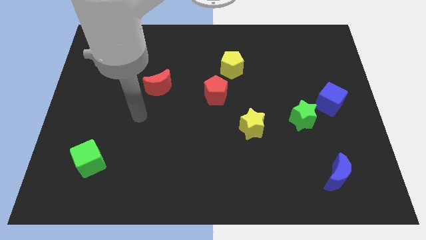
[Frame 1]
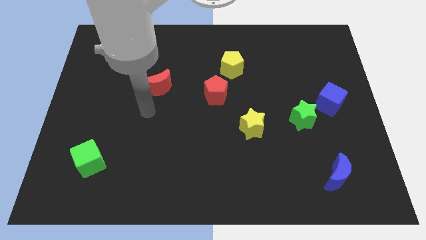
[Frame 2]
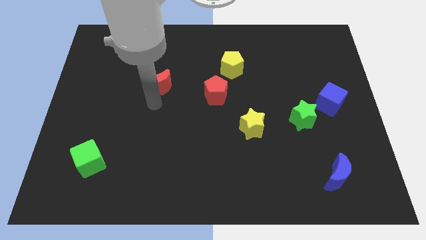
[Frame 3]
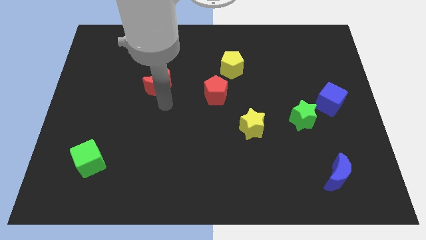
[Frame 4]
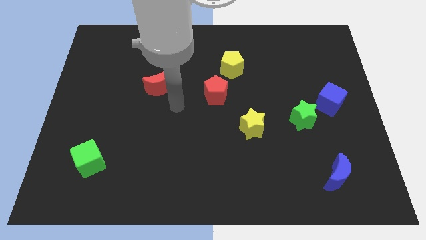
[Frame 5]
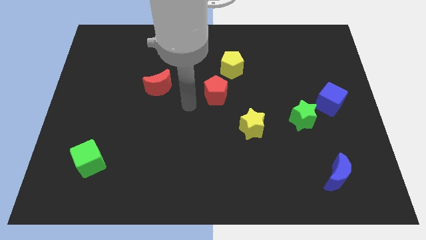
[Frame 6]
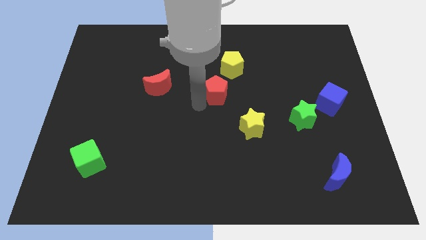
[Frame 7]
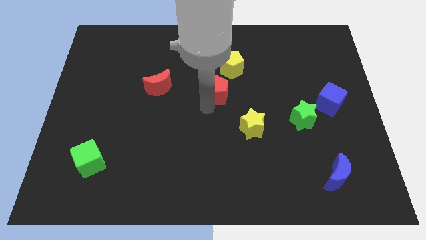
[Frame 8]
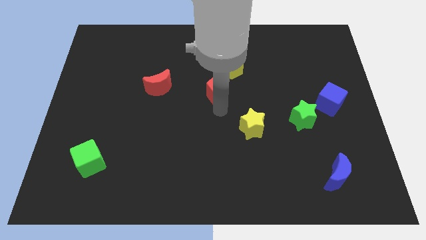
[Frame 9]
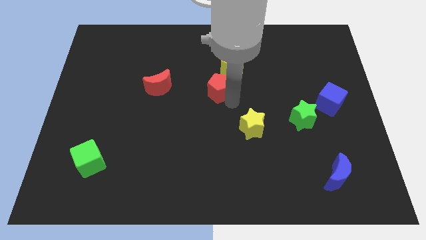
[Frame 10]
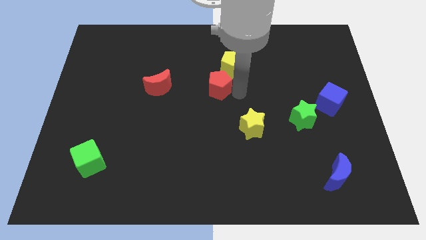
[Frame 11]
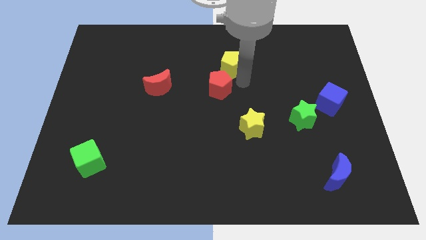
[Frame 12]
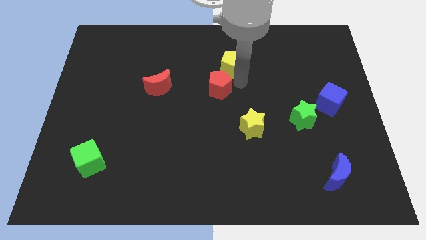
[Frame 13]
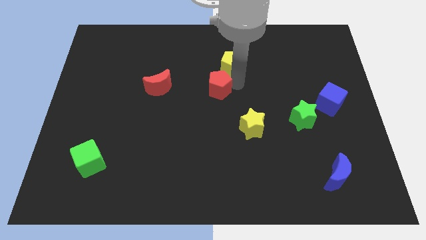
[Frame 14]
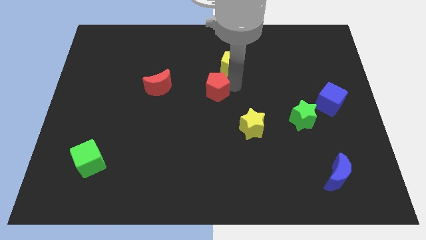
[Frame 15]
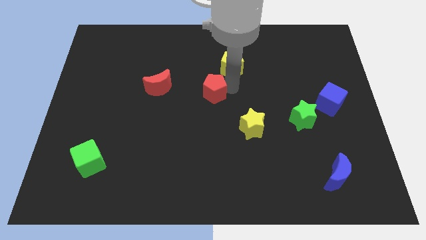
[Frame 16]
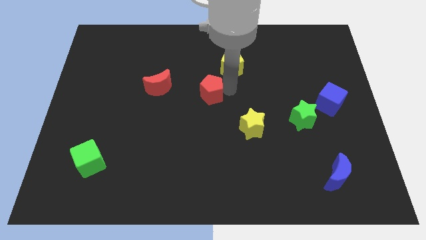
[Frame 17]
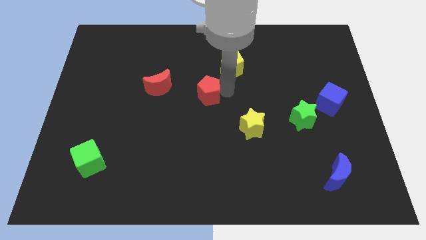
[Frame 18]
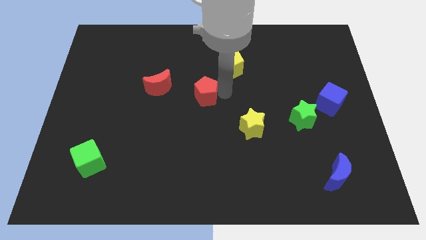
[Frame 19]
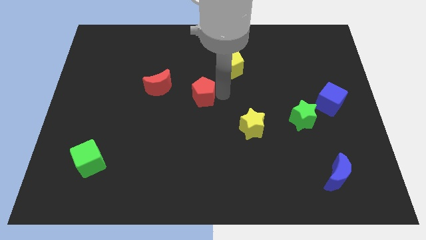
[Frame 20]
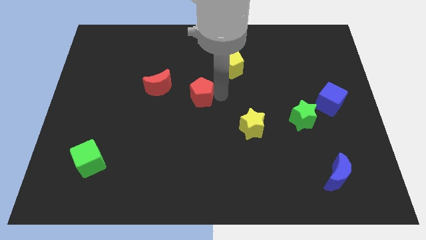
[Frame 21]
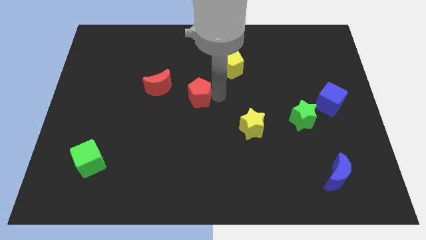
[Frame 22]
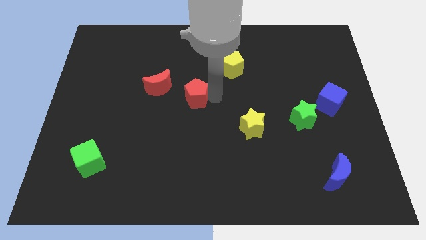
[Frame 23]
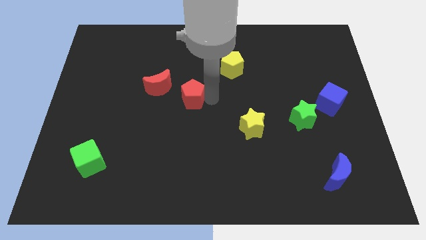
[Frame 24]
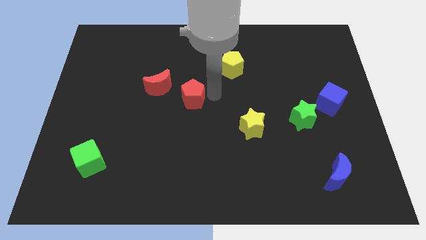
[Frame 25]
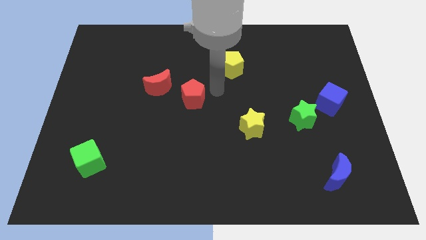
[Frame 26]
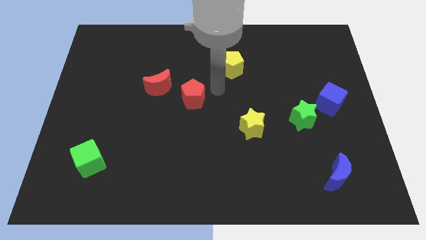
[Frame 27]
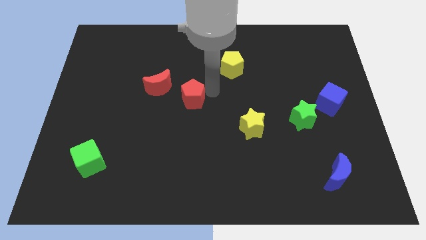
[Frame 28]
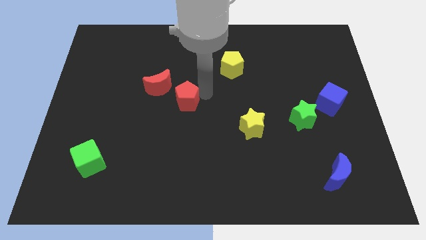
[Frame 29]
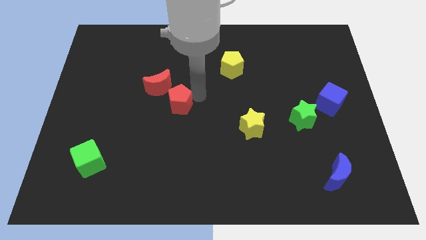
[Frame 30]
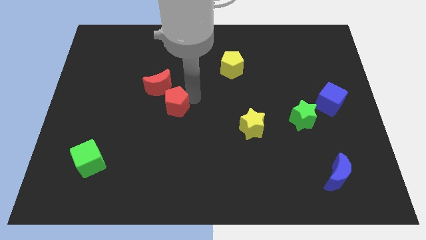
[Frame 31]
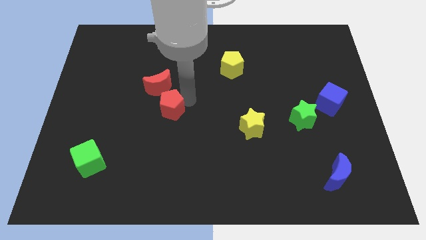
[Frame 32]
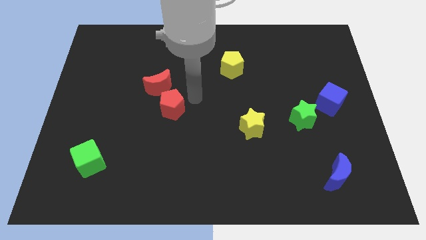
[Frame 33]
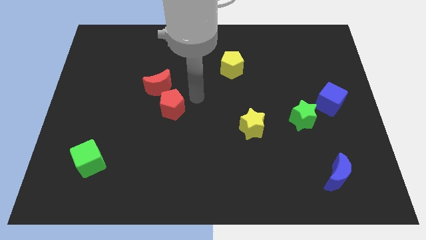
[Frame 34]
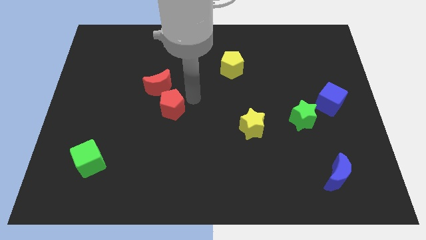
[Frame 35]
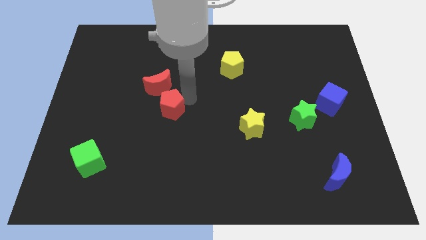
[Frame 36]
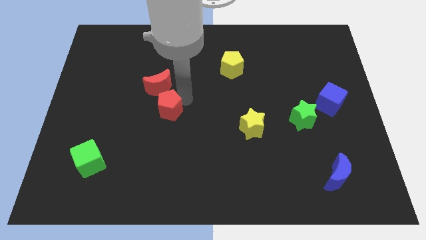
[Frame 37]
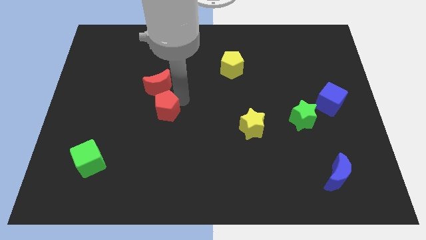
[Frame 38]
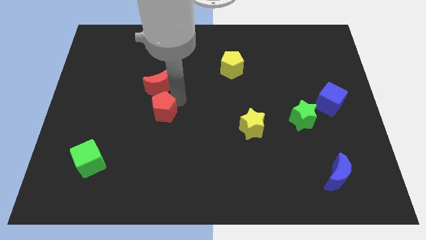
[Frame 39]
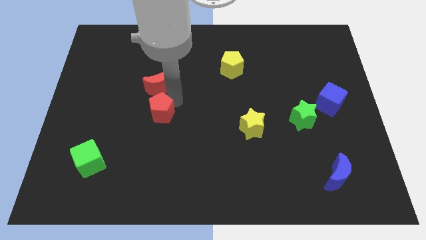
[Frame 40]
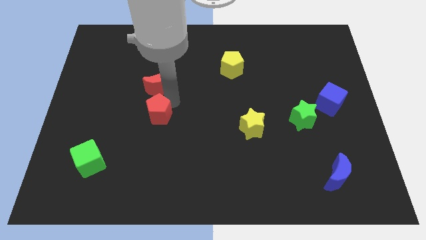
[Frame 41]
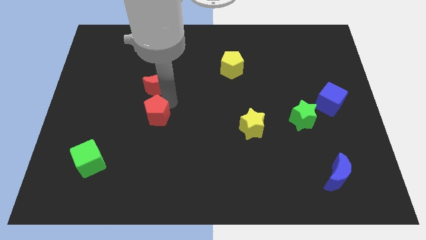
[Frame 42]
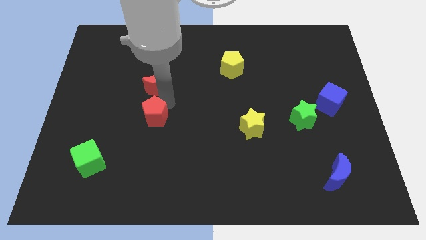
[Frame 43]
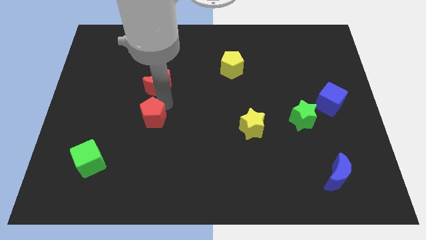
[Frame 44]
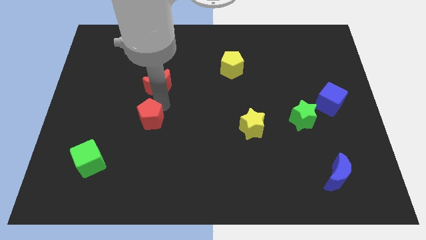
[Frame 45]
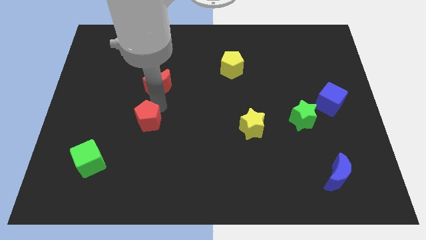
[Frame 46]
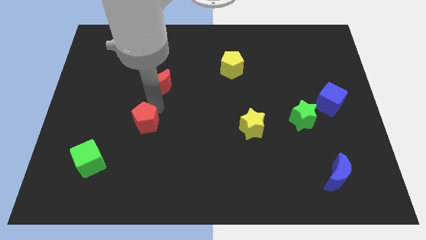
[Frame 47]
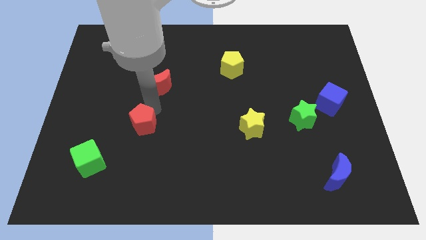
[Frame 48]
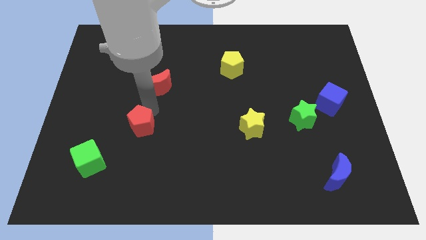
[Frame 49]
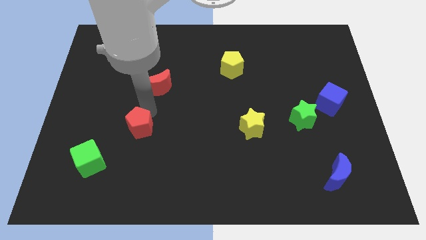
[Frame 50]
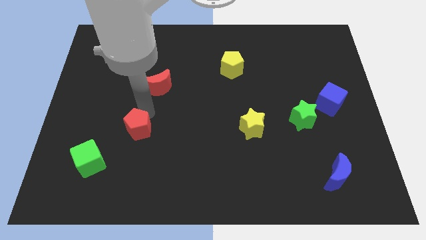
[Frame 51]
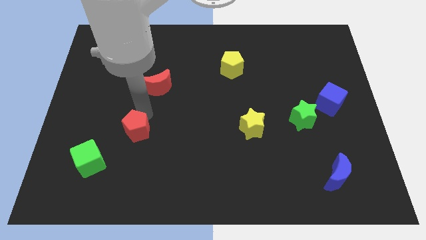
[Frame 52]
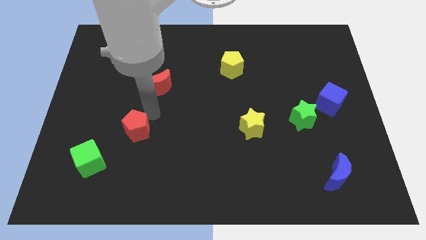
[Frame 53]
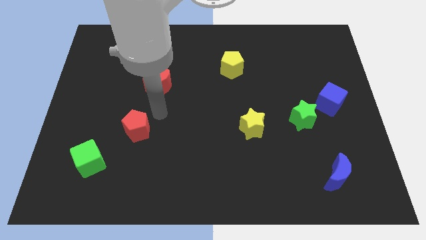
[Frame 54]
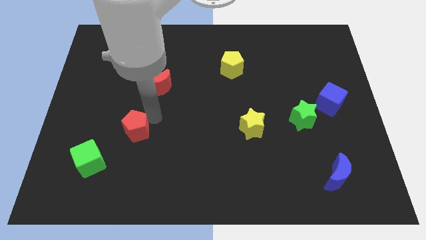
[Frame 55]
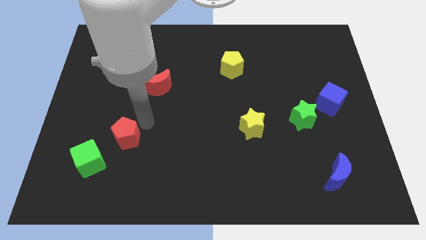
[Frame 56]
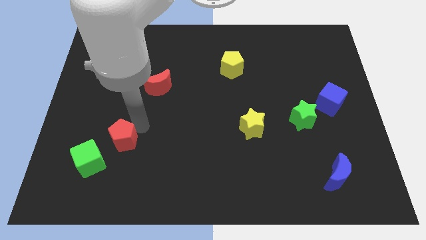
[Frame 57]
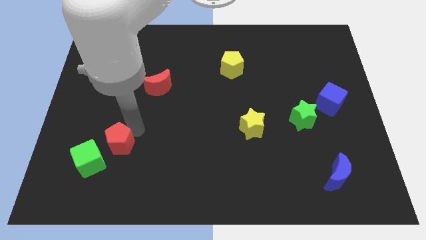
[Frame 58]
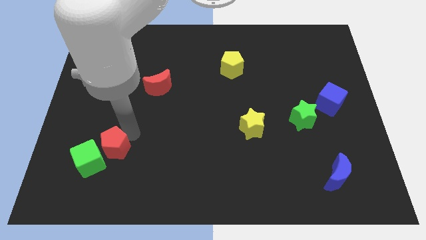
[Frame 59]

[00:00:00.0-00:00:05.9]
push the red pentagon next to the green cube

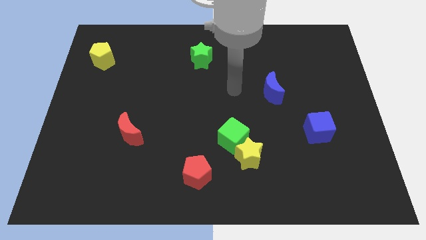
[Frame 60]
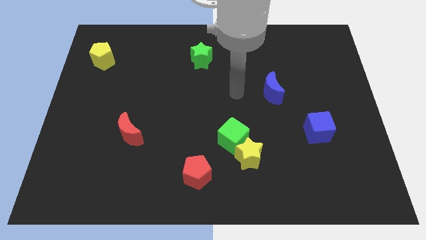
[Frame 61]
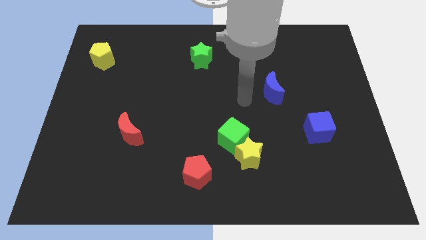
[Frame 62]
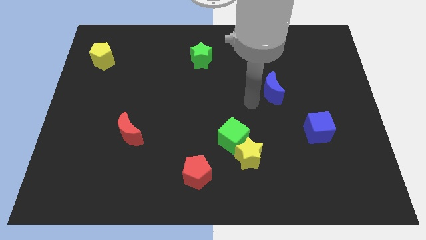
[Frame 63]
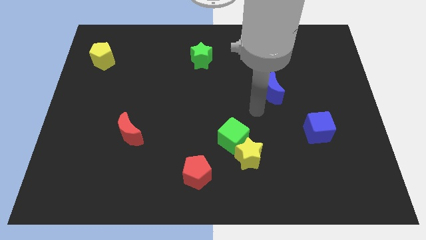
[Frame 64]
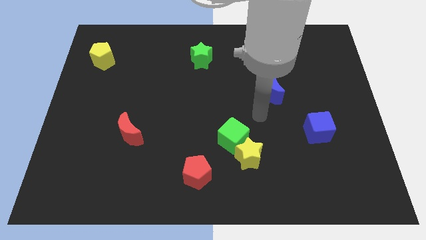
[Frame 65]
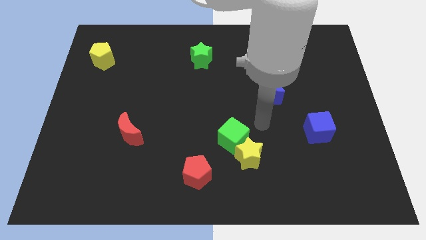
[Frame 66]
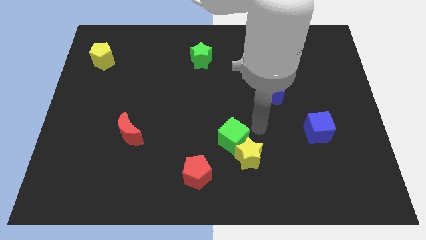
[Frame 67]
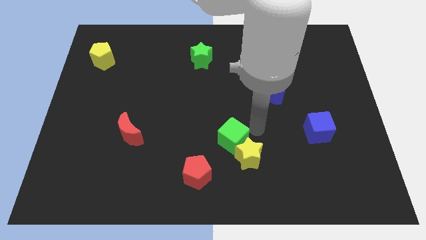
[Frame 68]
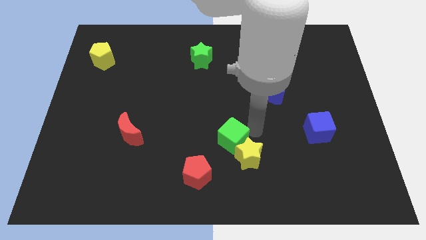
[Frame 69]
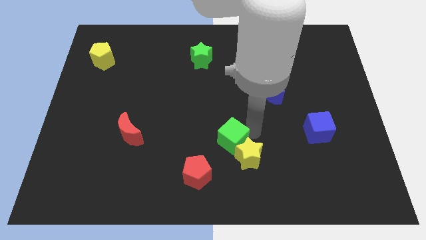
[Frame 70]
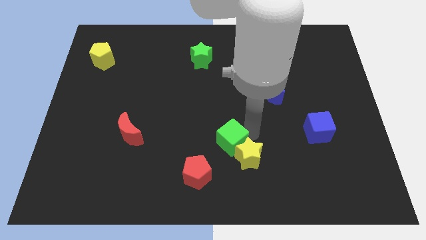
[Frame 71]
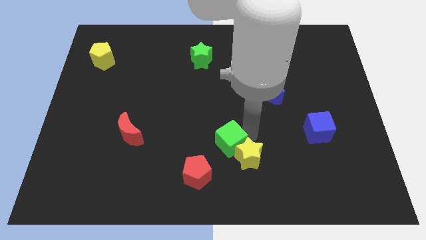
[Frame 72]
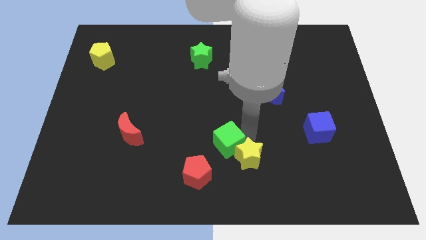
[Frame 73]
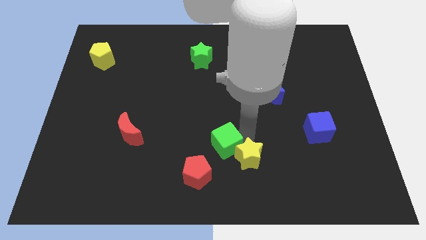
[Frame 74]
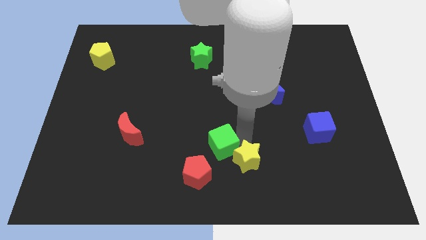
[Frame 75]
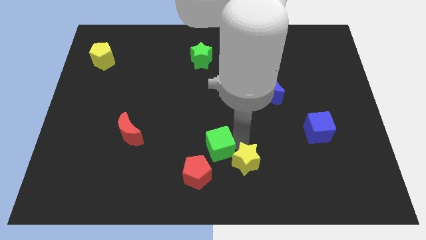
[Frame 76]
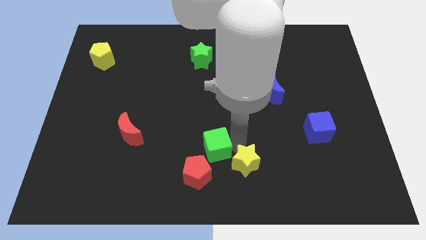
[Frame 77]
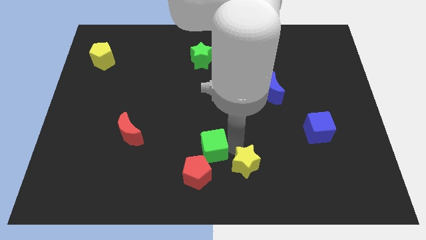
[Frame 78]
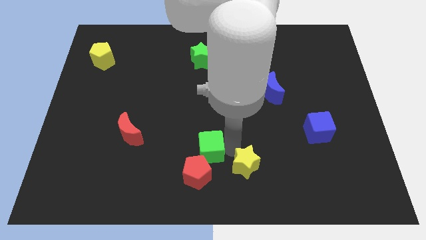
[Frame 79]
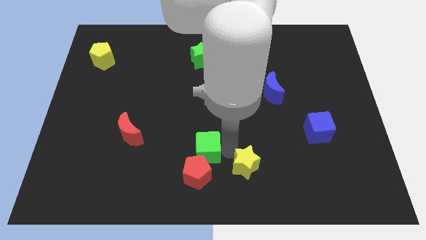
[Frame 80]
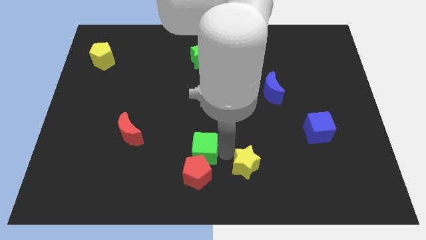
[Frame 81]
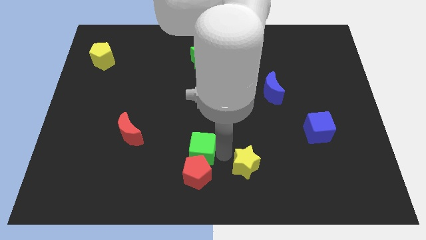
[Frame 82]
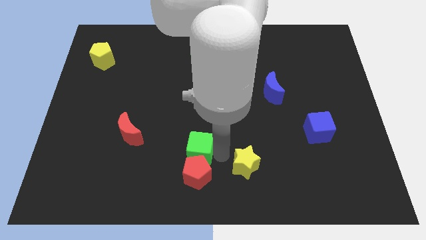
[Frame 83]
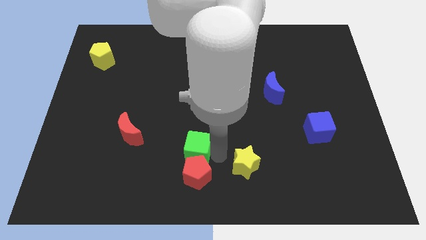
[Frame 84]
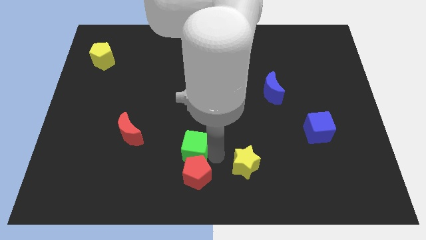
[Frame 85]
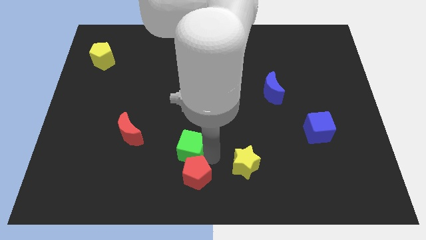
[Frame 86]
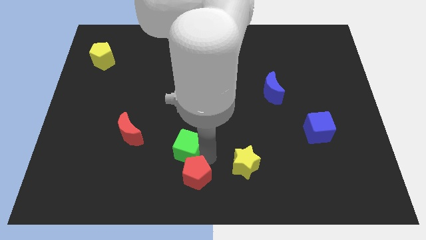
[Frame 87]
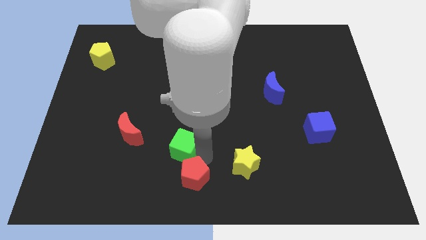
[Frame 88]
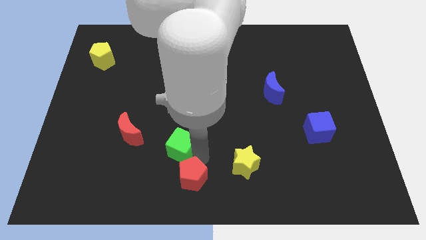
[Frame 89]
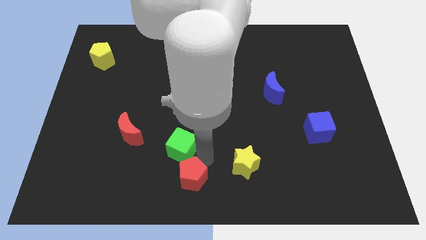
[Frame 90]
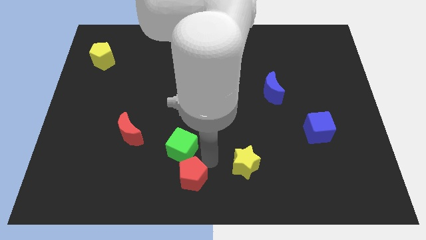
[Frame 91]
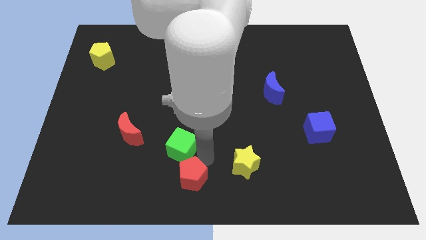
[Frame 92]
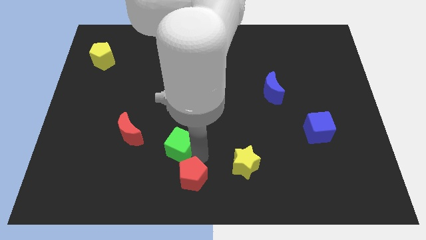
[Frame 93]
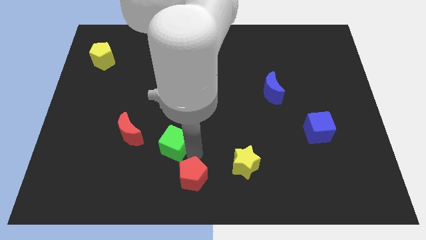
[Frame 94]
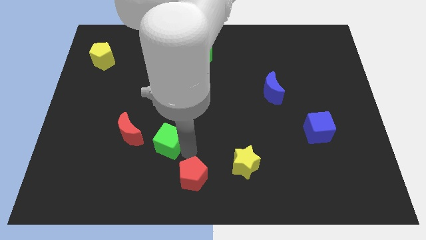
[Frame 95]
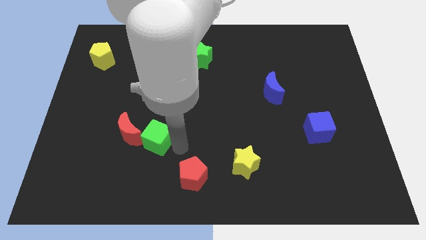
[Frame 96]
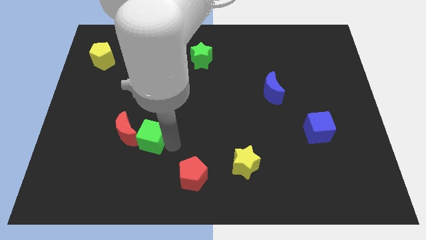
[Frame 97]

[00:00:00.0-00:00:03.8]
put the green cube close to the red moon
